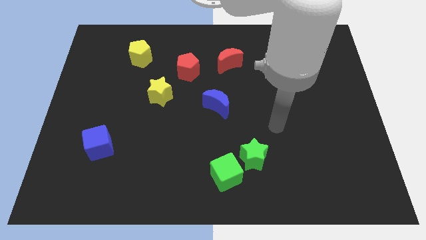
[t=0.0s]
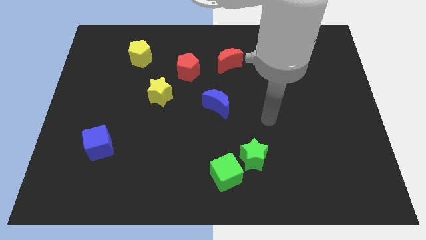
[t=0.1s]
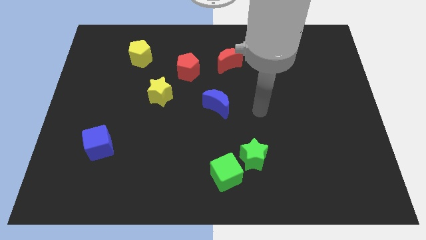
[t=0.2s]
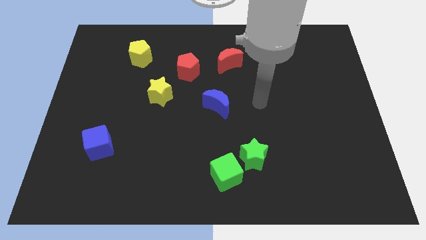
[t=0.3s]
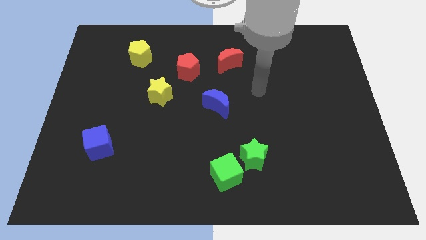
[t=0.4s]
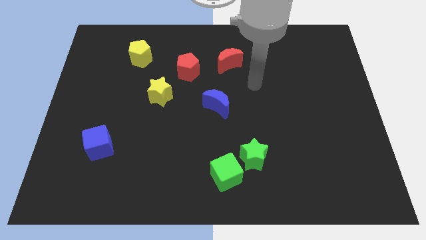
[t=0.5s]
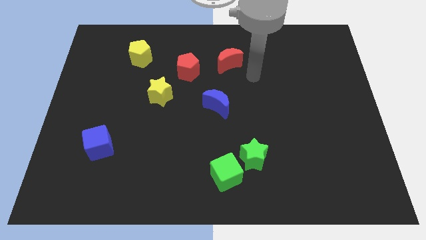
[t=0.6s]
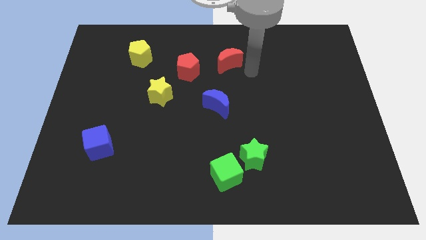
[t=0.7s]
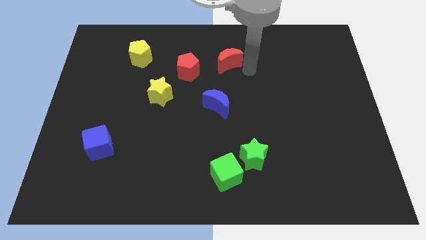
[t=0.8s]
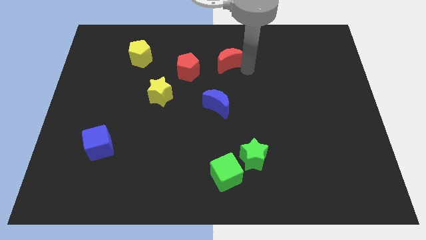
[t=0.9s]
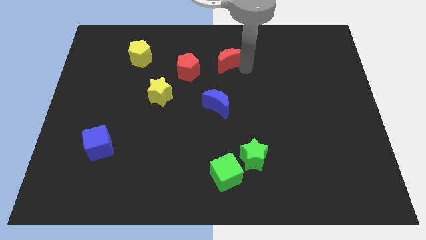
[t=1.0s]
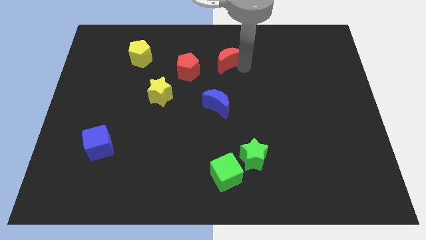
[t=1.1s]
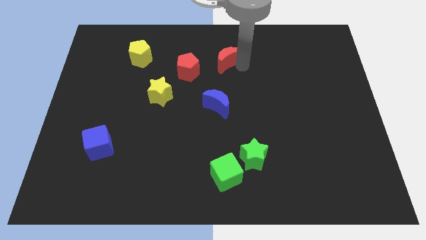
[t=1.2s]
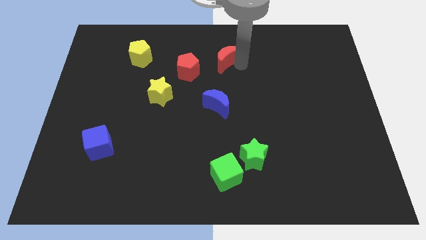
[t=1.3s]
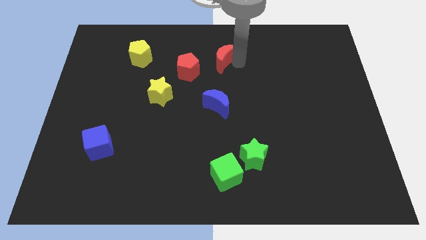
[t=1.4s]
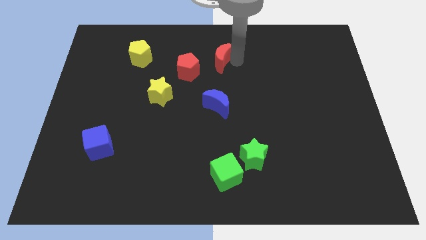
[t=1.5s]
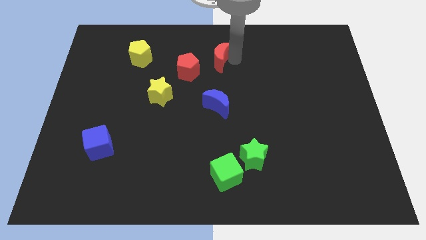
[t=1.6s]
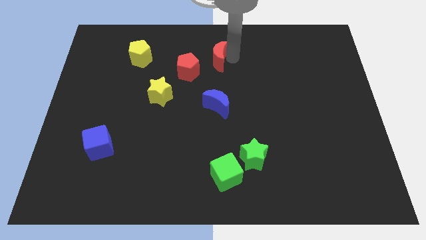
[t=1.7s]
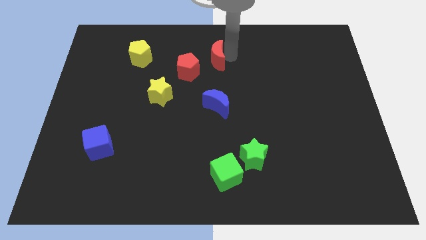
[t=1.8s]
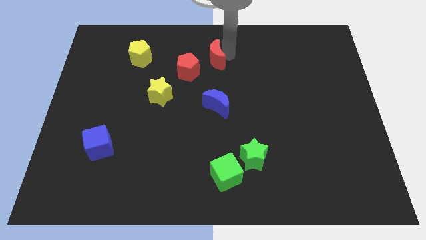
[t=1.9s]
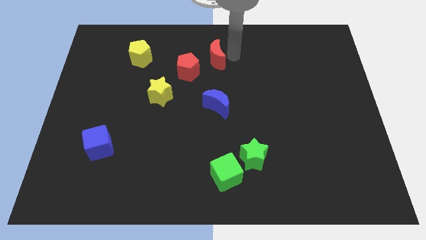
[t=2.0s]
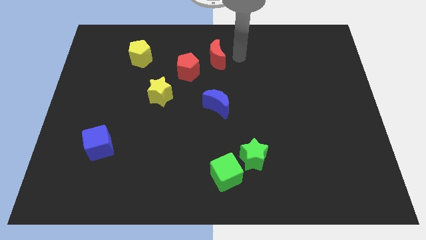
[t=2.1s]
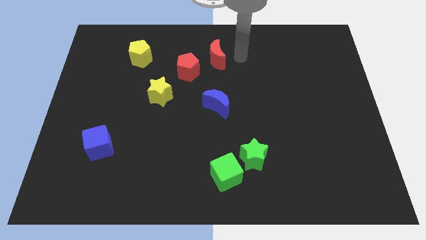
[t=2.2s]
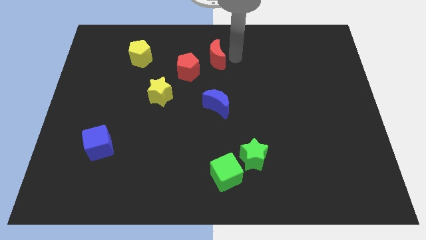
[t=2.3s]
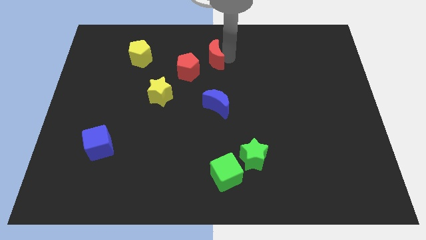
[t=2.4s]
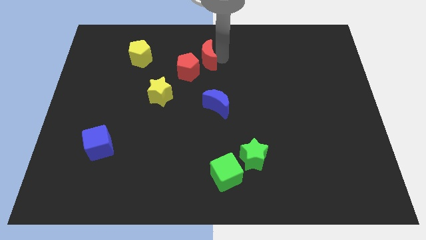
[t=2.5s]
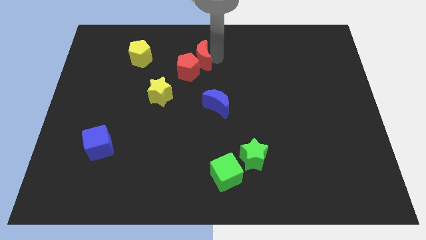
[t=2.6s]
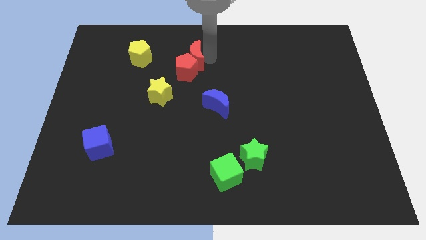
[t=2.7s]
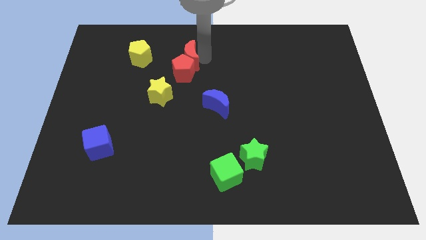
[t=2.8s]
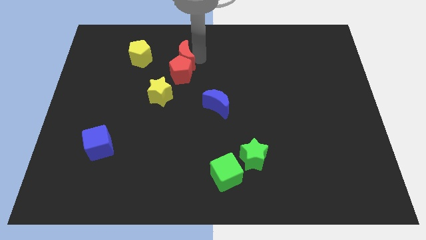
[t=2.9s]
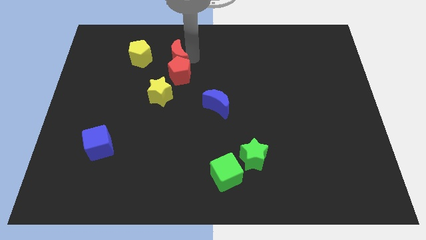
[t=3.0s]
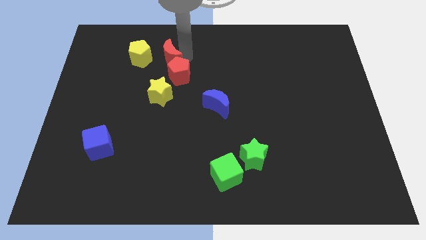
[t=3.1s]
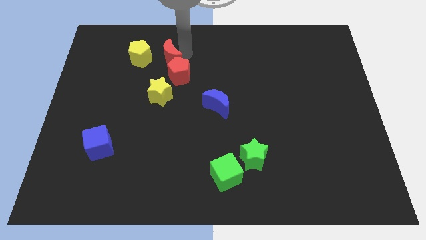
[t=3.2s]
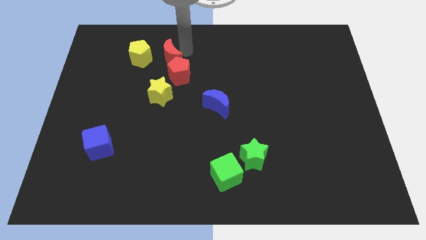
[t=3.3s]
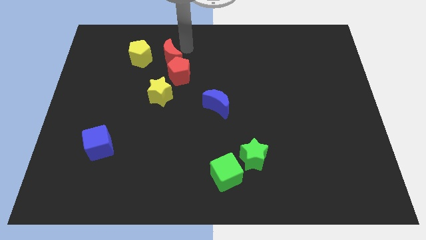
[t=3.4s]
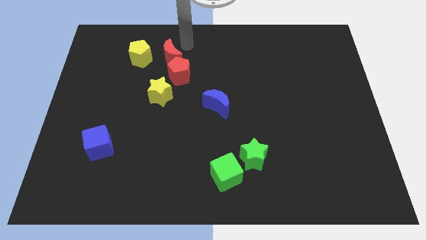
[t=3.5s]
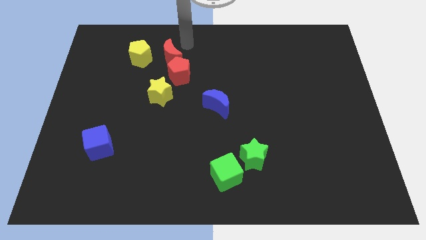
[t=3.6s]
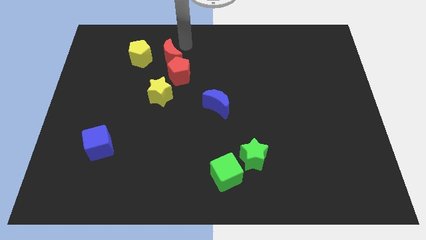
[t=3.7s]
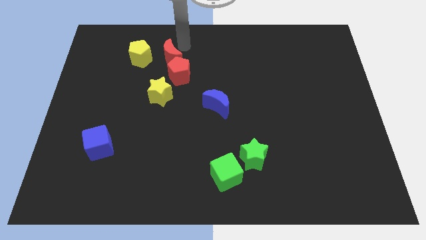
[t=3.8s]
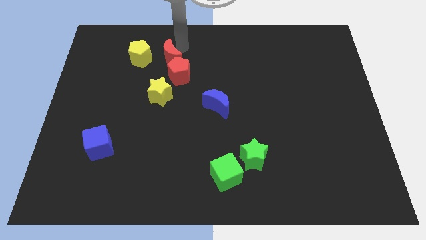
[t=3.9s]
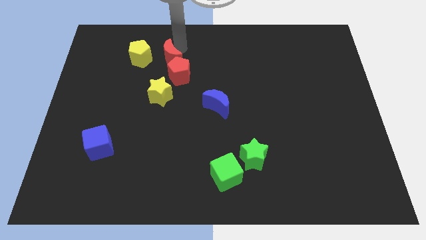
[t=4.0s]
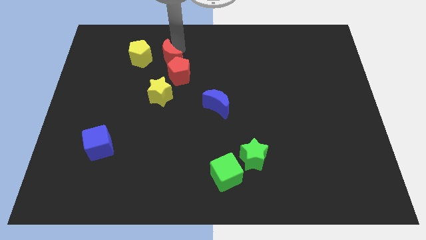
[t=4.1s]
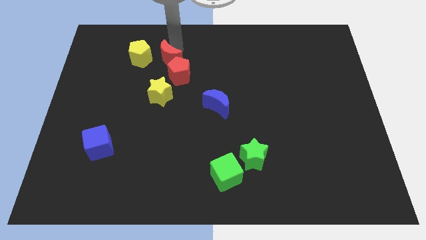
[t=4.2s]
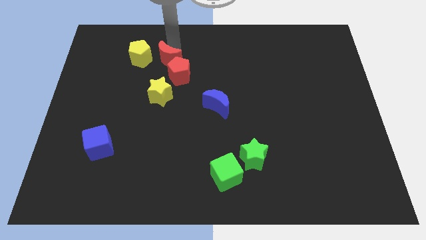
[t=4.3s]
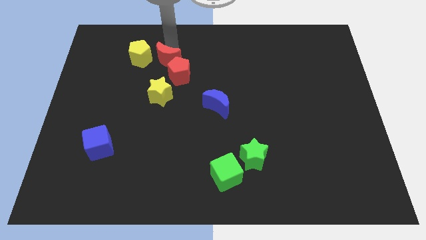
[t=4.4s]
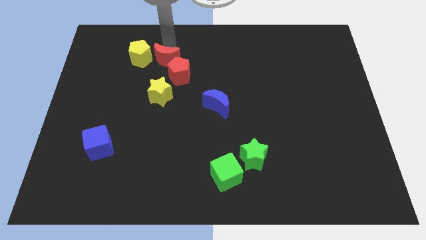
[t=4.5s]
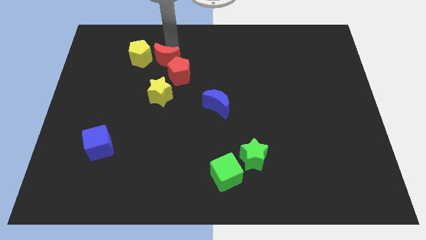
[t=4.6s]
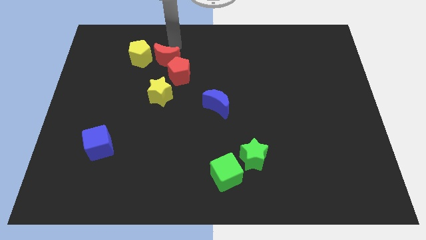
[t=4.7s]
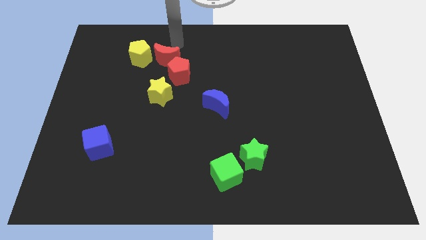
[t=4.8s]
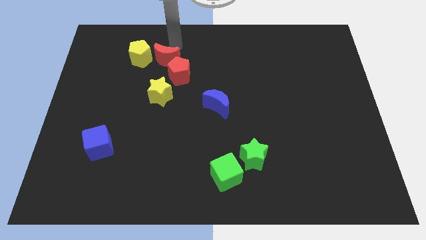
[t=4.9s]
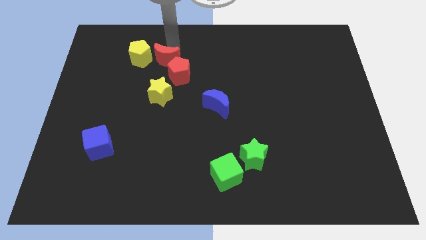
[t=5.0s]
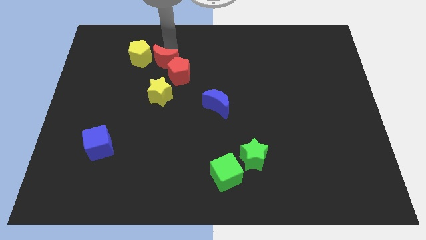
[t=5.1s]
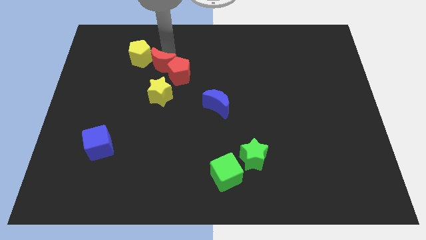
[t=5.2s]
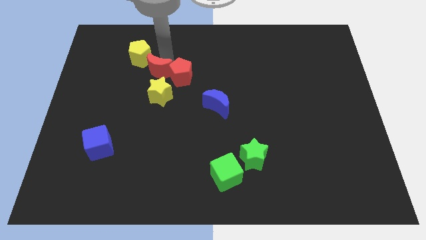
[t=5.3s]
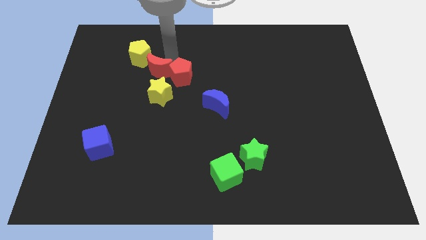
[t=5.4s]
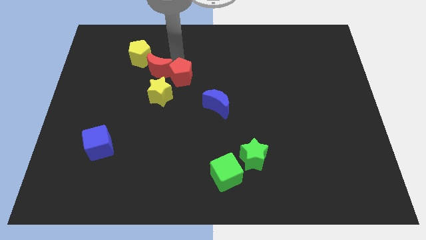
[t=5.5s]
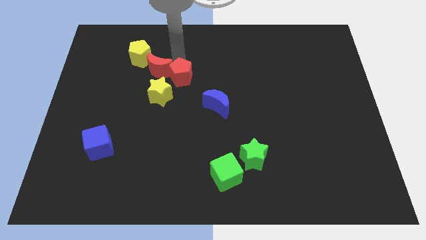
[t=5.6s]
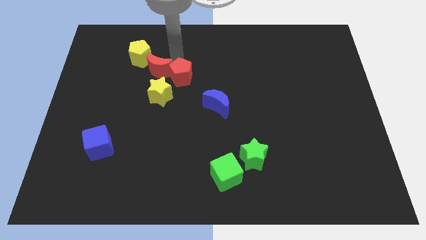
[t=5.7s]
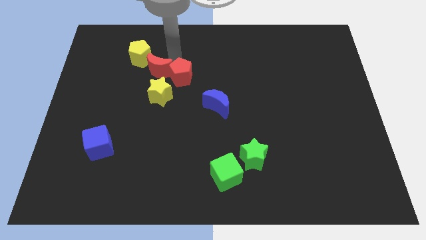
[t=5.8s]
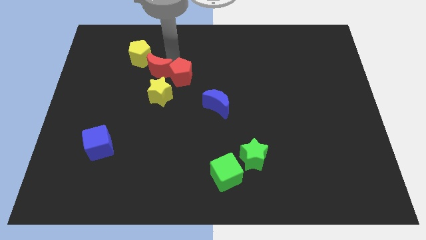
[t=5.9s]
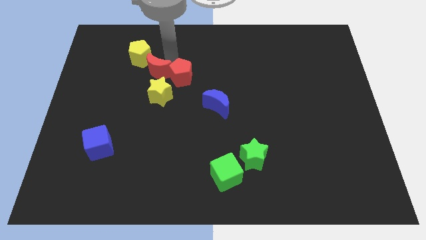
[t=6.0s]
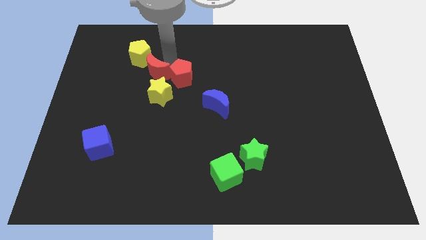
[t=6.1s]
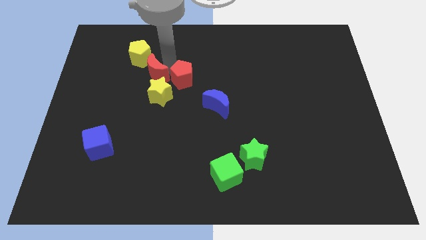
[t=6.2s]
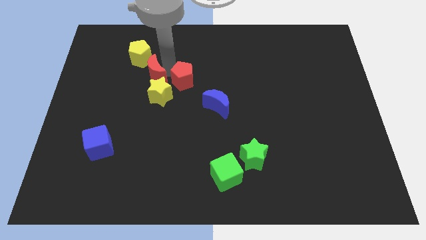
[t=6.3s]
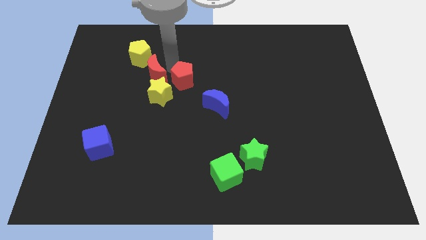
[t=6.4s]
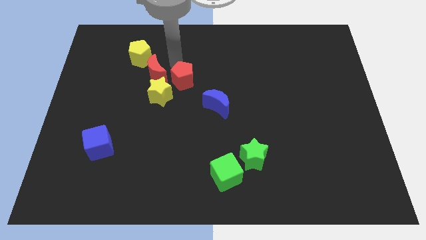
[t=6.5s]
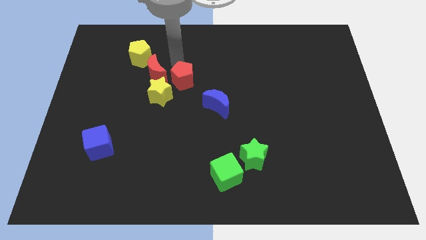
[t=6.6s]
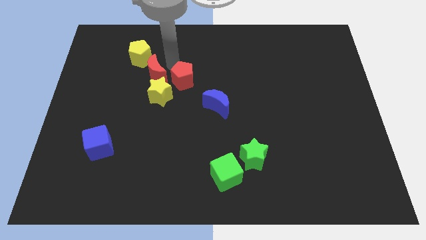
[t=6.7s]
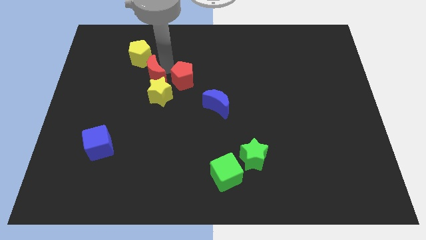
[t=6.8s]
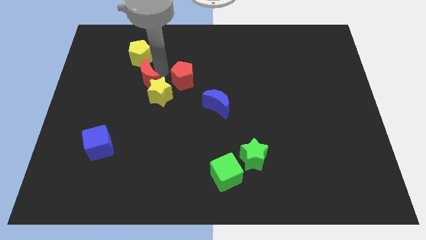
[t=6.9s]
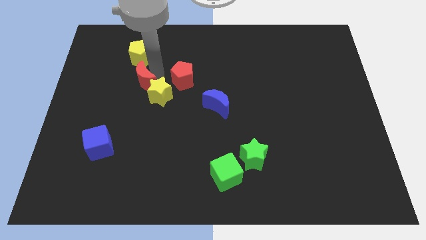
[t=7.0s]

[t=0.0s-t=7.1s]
put the red moon just left of the yellow star

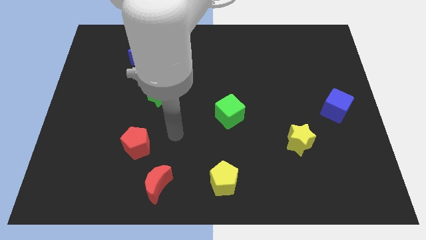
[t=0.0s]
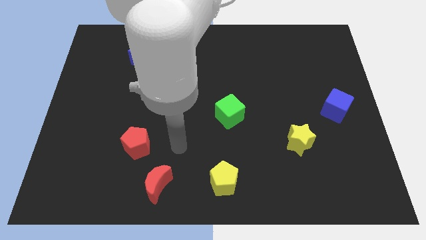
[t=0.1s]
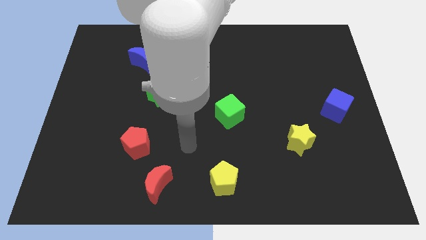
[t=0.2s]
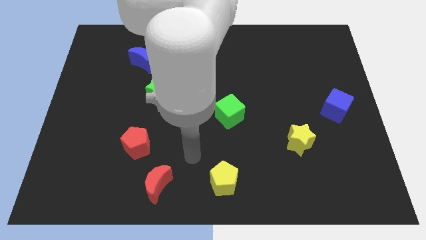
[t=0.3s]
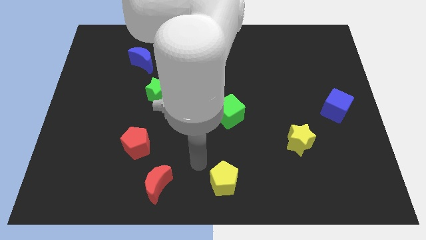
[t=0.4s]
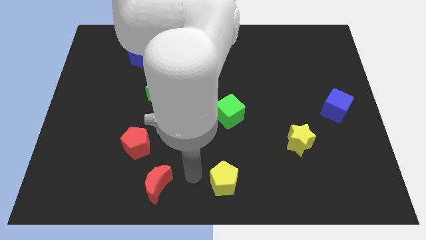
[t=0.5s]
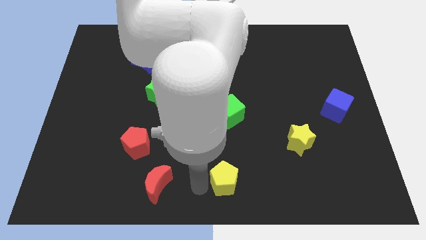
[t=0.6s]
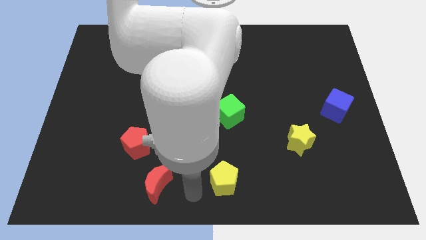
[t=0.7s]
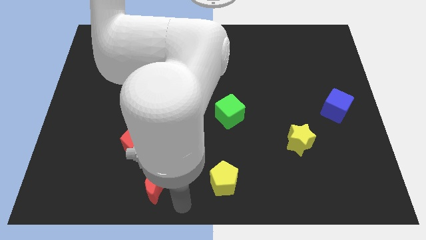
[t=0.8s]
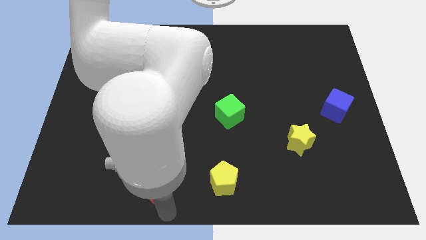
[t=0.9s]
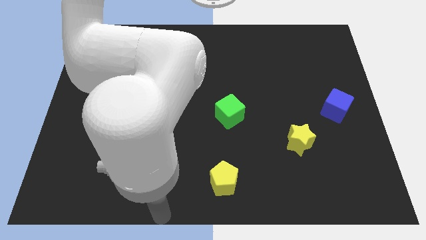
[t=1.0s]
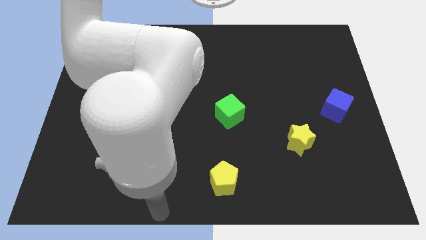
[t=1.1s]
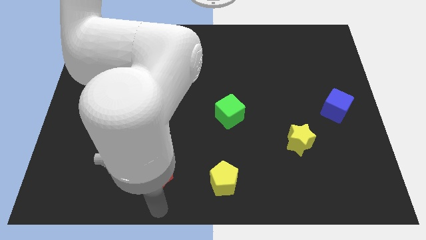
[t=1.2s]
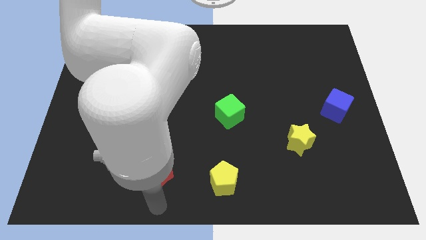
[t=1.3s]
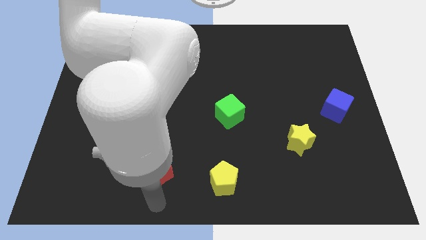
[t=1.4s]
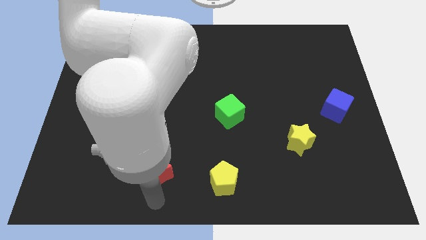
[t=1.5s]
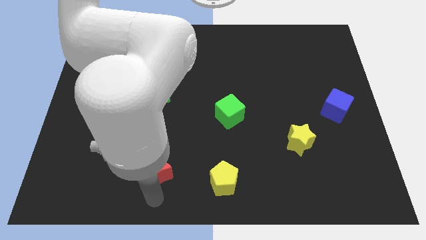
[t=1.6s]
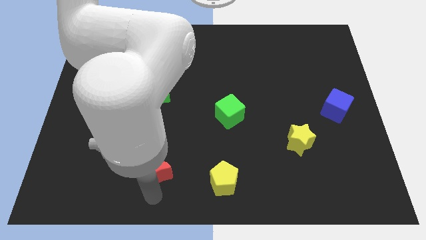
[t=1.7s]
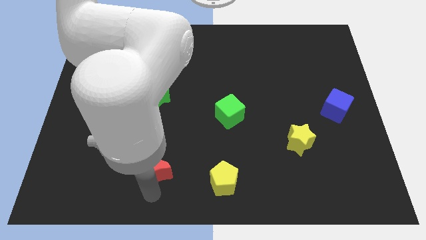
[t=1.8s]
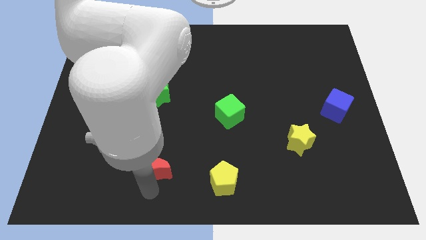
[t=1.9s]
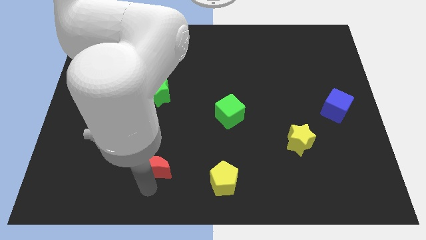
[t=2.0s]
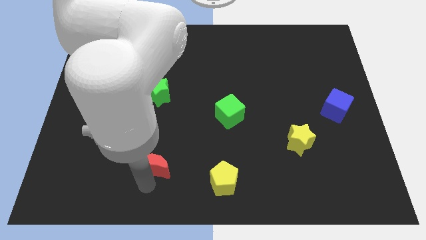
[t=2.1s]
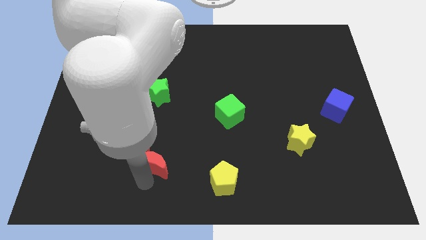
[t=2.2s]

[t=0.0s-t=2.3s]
put the red moon just right of the red pentagon
